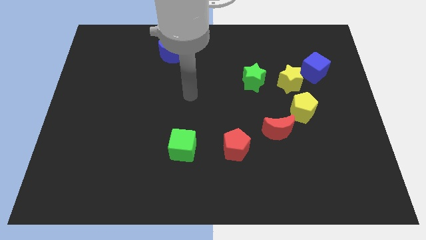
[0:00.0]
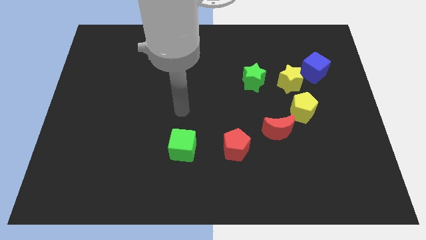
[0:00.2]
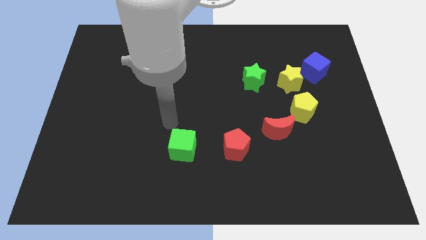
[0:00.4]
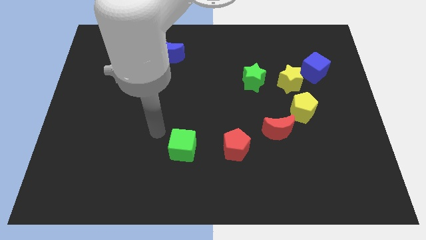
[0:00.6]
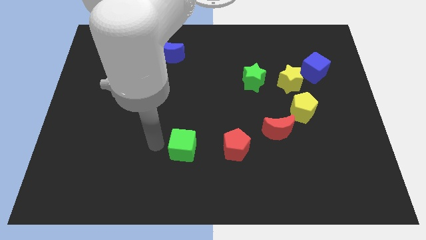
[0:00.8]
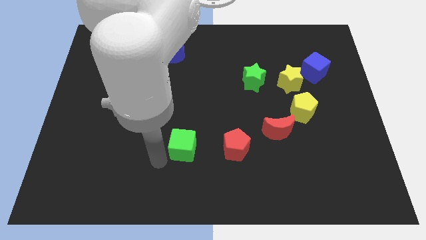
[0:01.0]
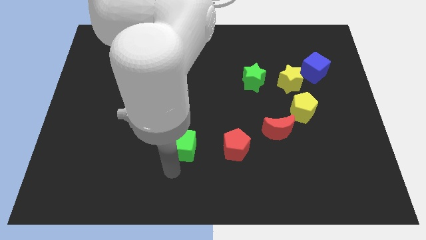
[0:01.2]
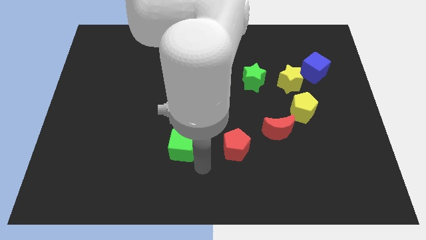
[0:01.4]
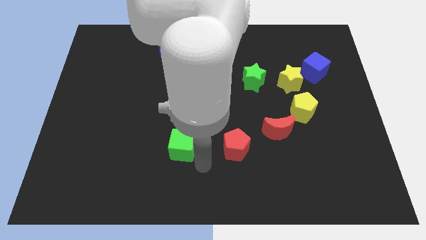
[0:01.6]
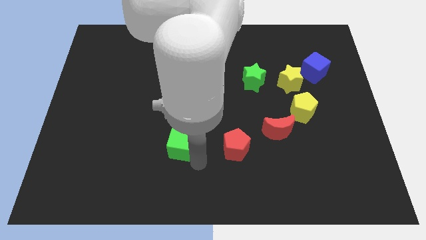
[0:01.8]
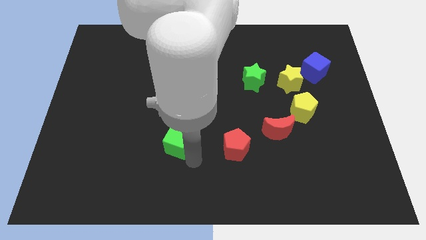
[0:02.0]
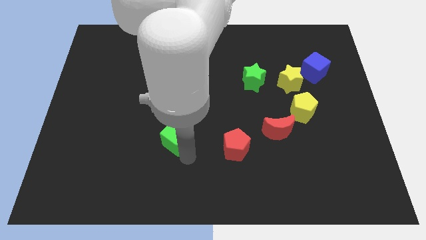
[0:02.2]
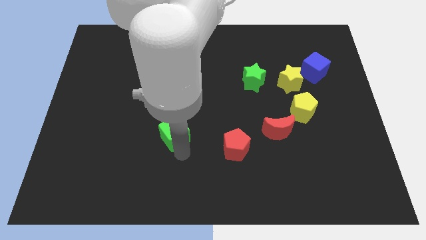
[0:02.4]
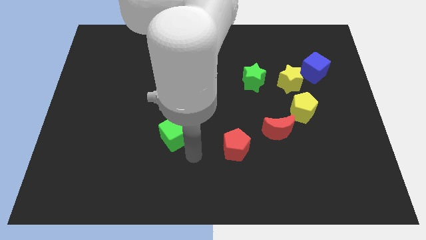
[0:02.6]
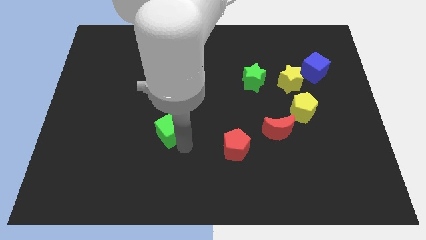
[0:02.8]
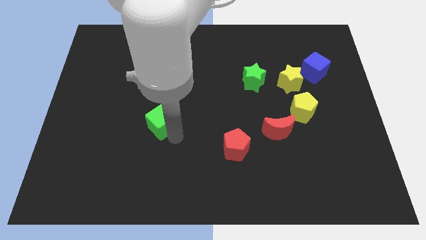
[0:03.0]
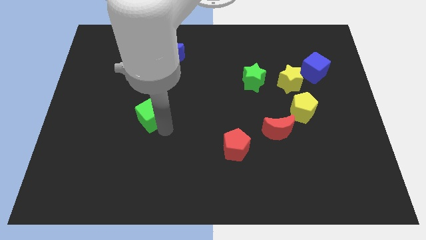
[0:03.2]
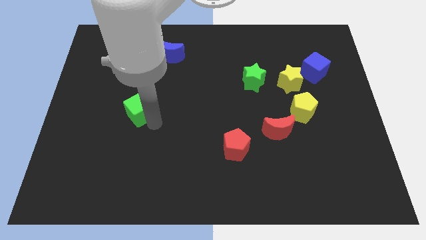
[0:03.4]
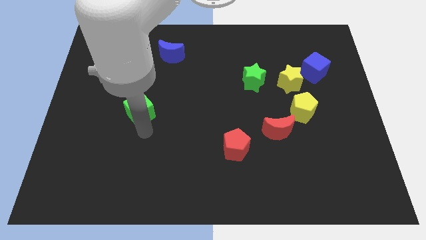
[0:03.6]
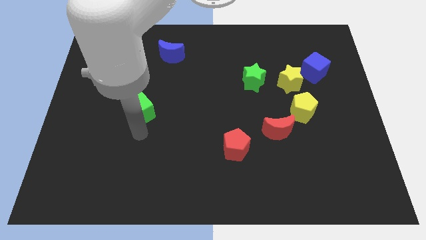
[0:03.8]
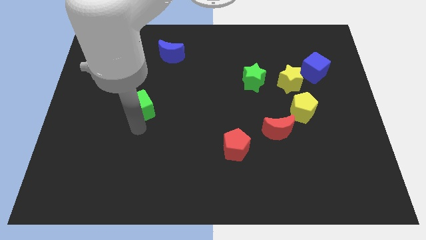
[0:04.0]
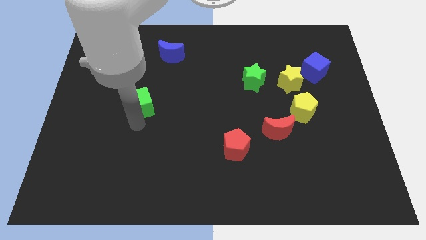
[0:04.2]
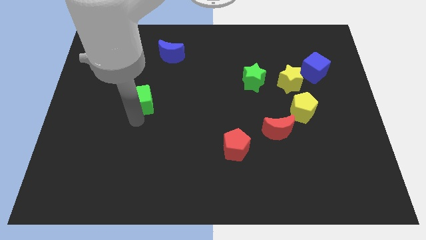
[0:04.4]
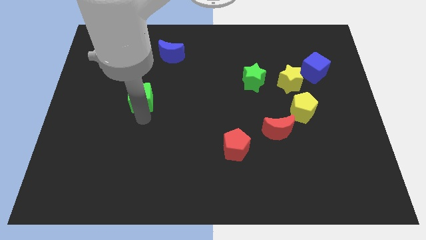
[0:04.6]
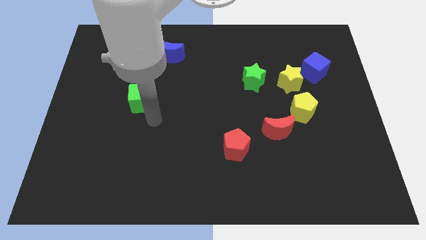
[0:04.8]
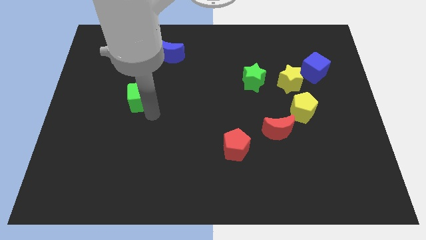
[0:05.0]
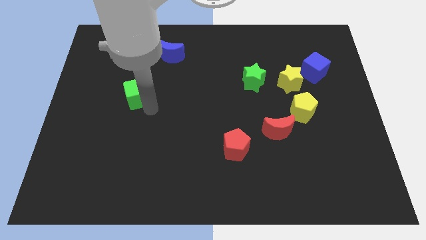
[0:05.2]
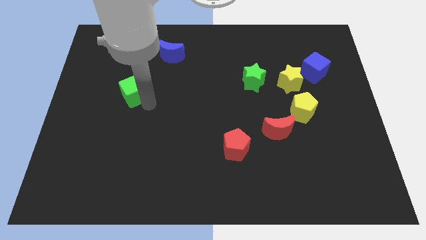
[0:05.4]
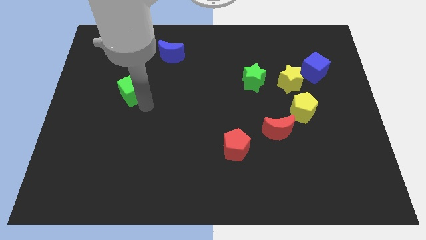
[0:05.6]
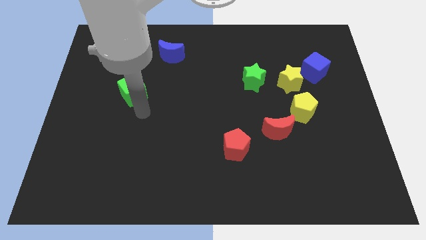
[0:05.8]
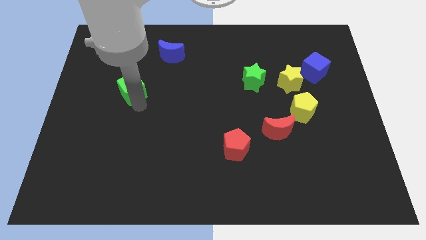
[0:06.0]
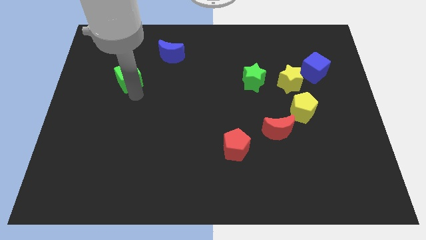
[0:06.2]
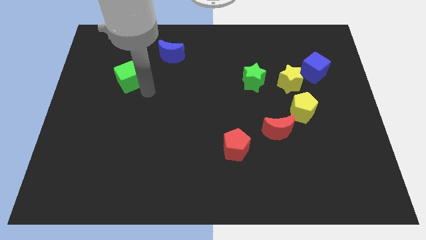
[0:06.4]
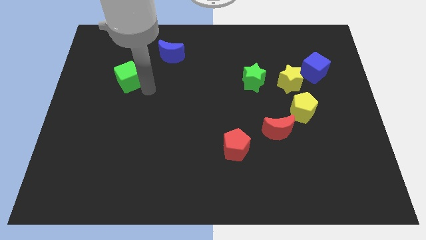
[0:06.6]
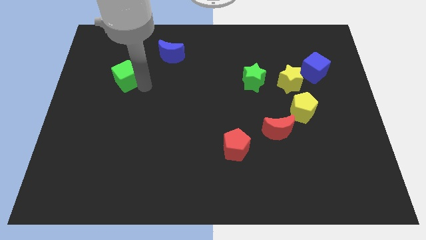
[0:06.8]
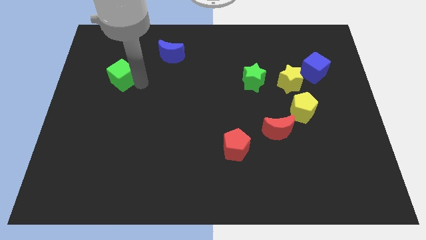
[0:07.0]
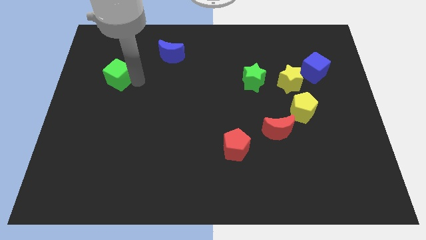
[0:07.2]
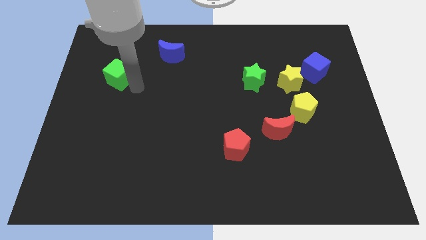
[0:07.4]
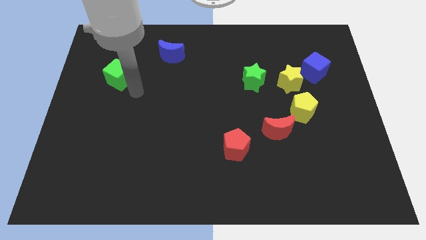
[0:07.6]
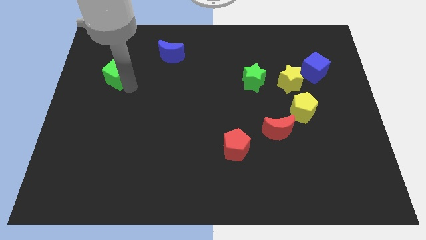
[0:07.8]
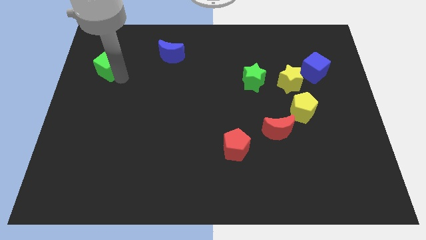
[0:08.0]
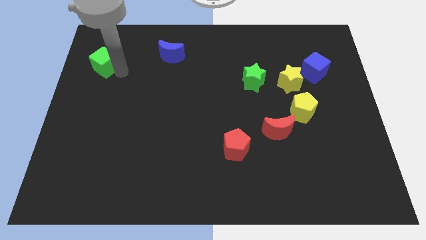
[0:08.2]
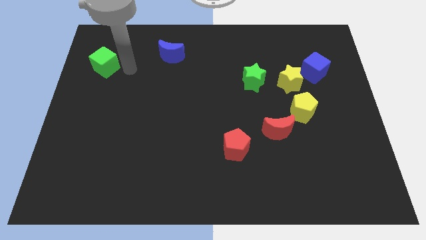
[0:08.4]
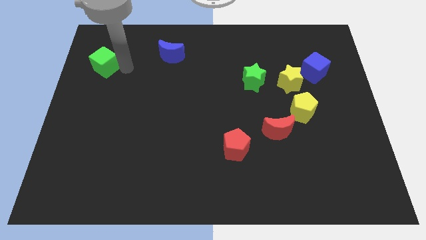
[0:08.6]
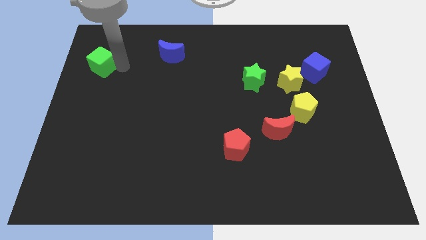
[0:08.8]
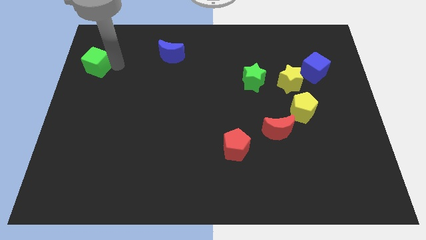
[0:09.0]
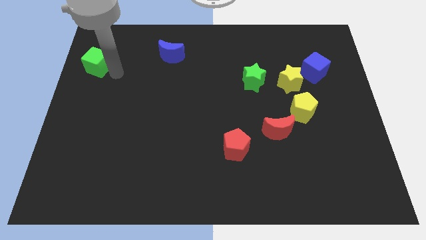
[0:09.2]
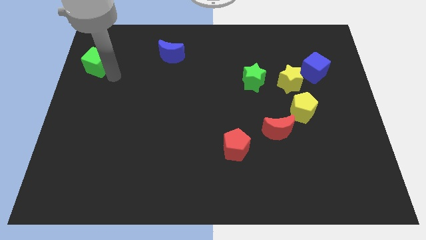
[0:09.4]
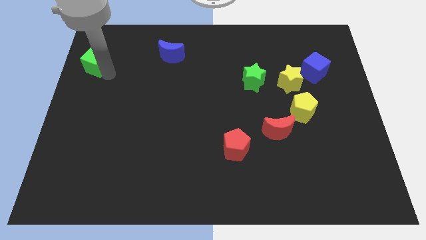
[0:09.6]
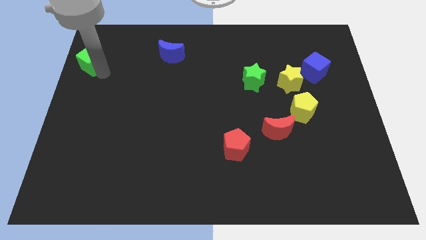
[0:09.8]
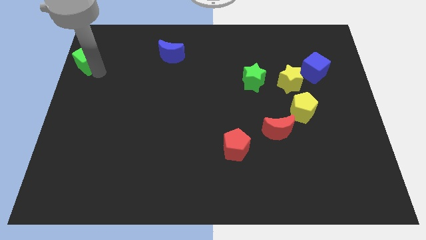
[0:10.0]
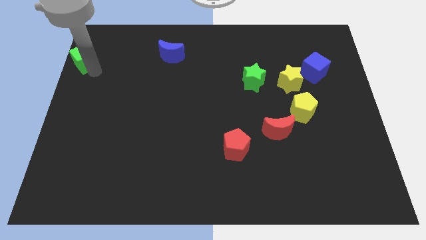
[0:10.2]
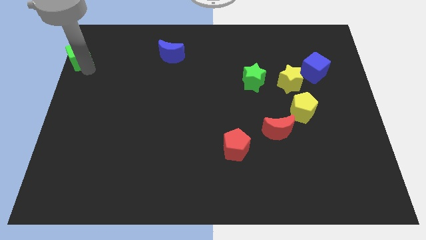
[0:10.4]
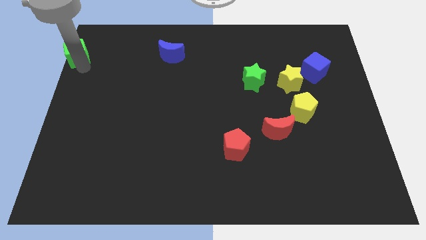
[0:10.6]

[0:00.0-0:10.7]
slide the green cube to the upper left corner

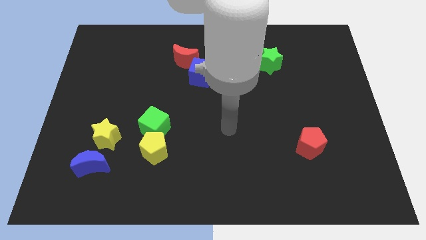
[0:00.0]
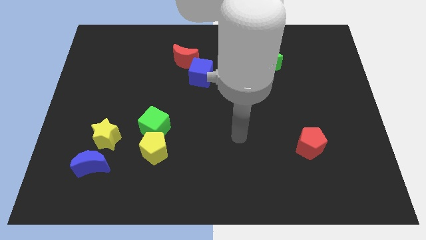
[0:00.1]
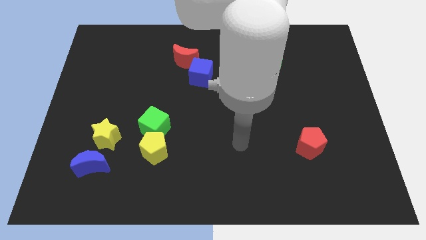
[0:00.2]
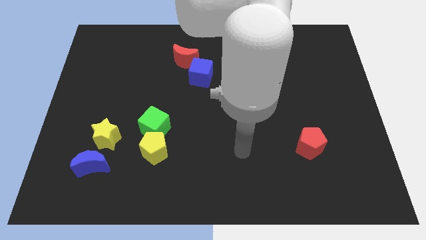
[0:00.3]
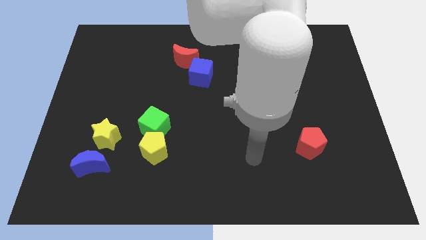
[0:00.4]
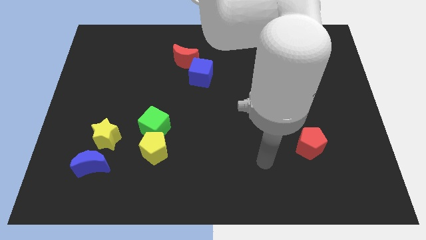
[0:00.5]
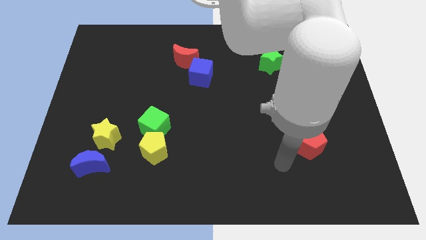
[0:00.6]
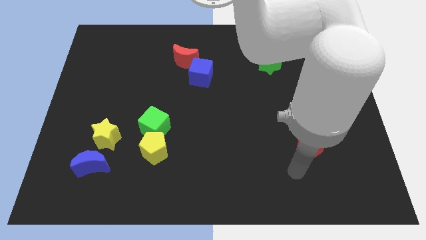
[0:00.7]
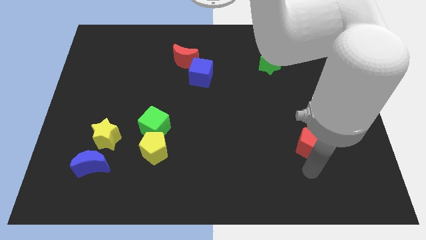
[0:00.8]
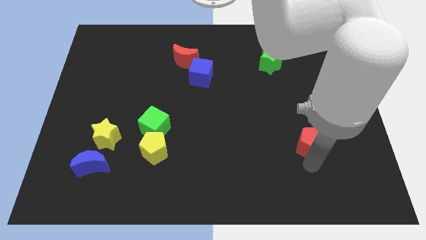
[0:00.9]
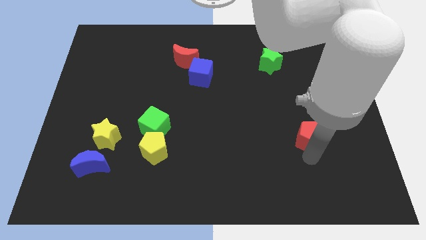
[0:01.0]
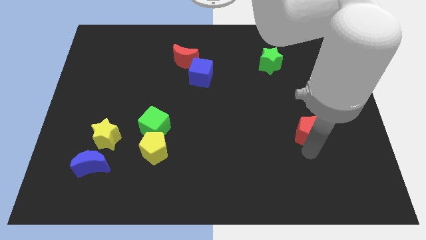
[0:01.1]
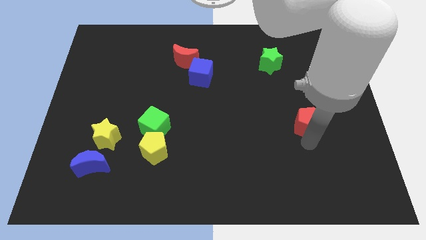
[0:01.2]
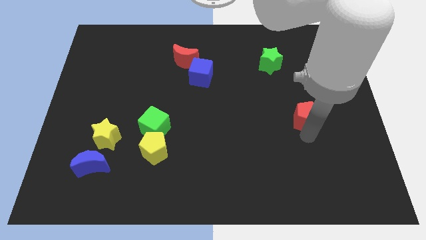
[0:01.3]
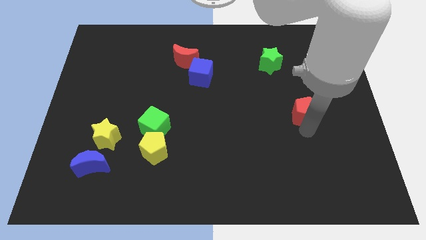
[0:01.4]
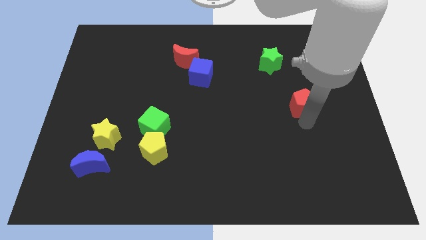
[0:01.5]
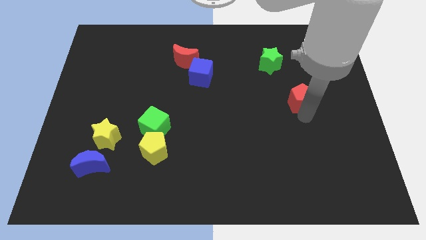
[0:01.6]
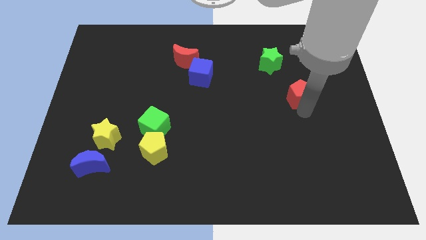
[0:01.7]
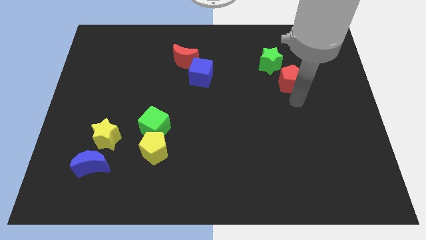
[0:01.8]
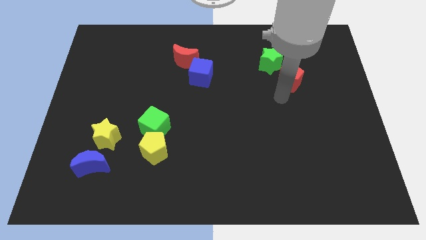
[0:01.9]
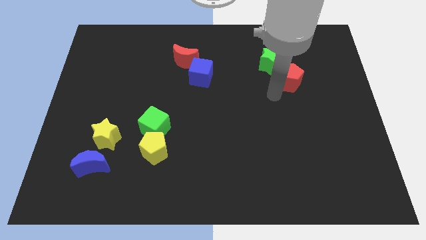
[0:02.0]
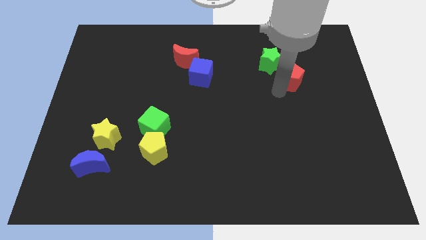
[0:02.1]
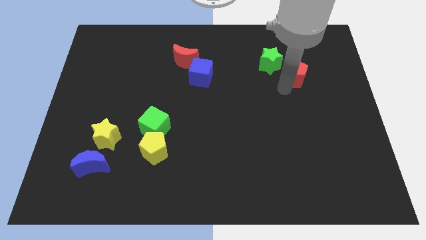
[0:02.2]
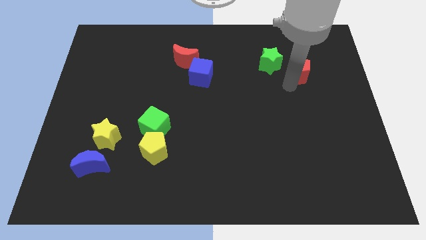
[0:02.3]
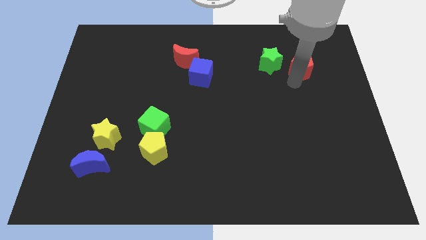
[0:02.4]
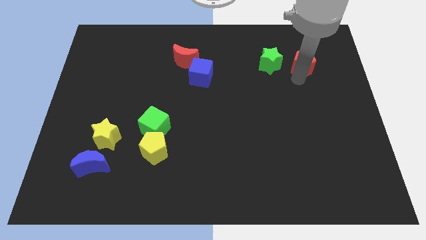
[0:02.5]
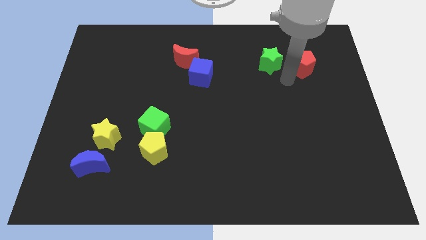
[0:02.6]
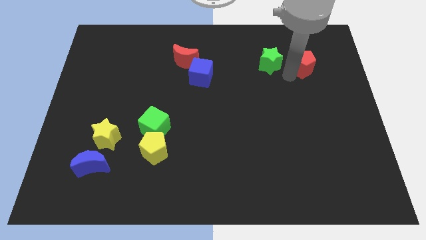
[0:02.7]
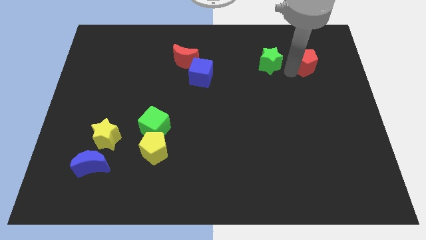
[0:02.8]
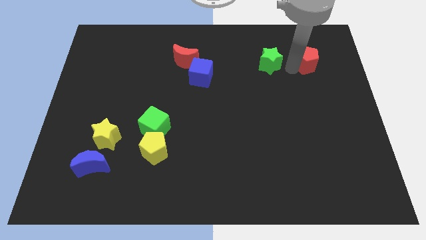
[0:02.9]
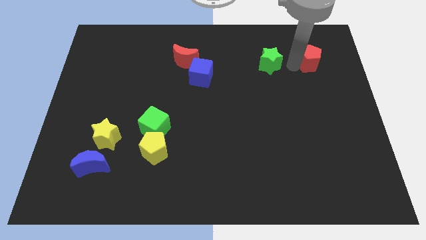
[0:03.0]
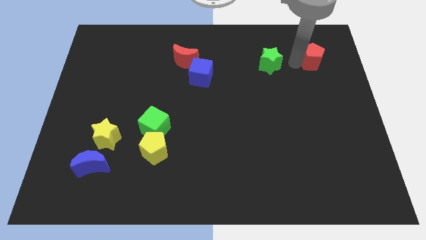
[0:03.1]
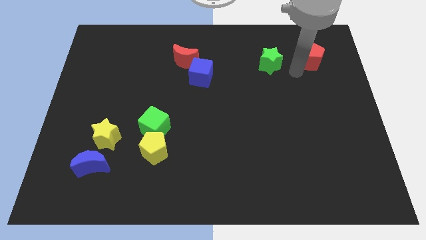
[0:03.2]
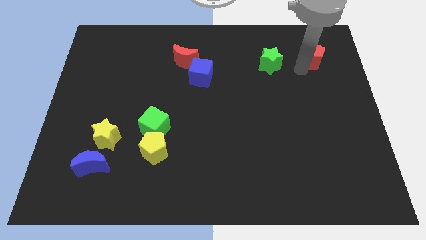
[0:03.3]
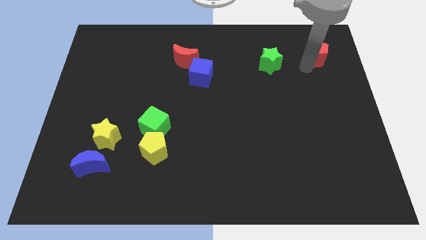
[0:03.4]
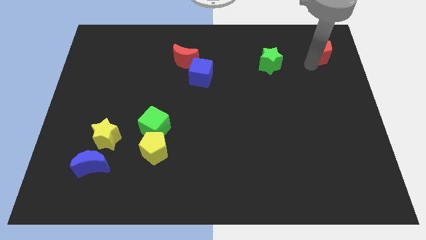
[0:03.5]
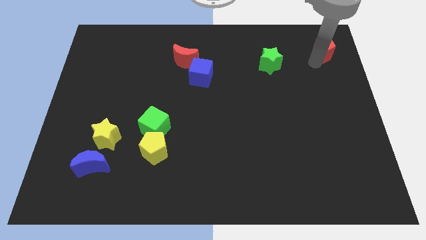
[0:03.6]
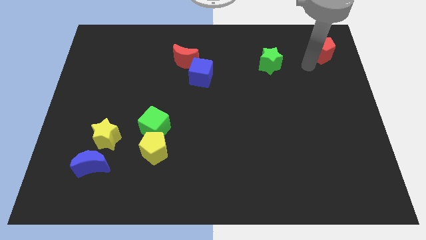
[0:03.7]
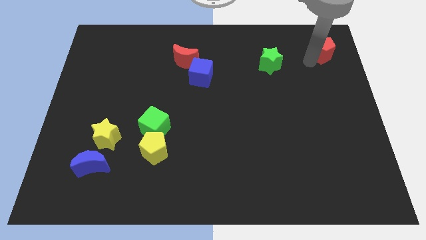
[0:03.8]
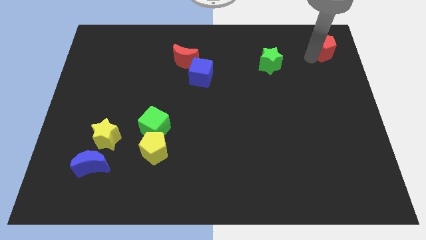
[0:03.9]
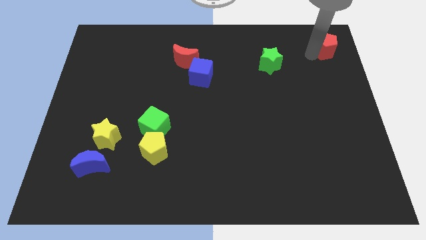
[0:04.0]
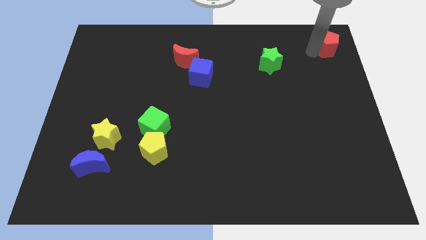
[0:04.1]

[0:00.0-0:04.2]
put the red pentagon to the top right of the board
